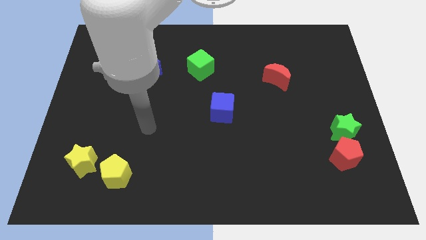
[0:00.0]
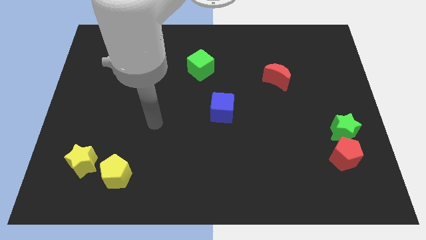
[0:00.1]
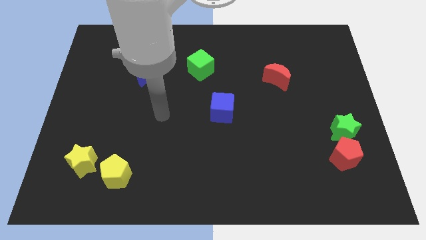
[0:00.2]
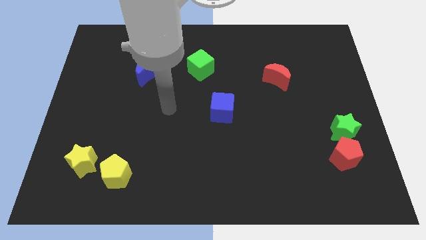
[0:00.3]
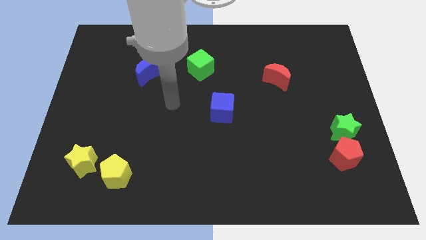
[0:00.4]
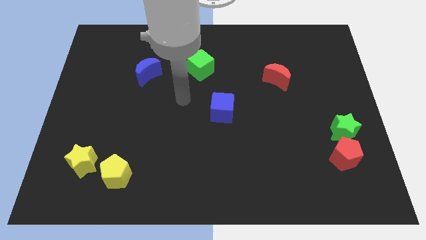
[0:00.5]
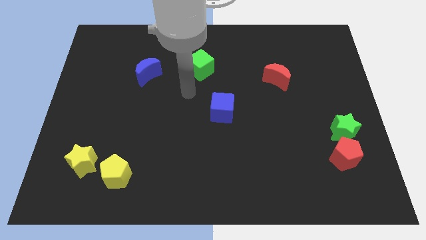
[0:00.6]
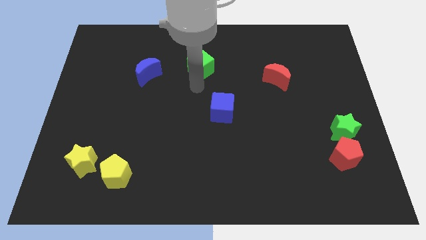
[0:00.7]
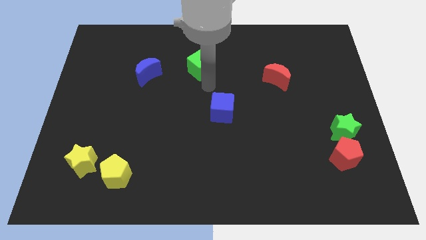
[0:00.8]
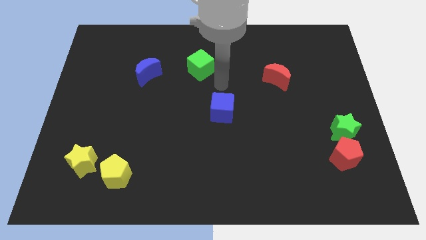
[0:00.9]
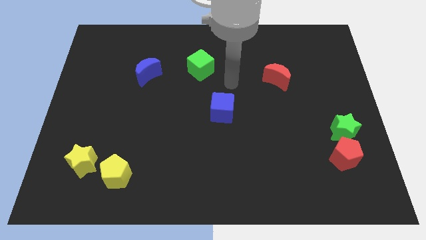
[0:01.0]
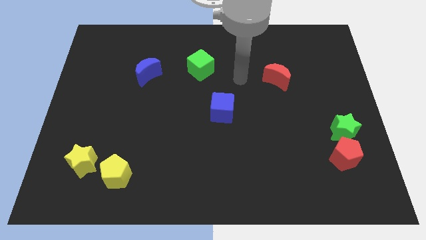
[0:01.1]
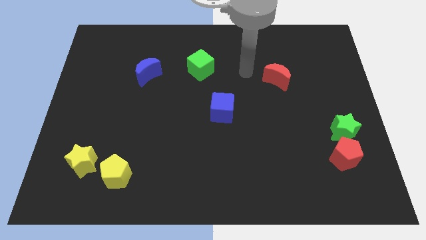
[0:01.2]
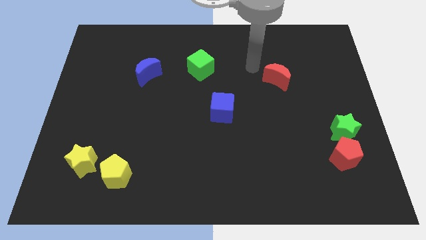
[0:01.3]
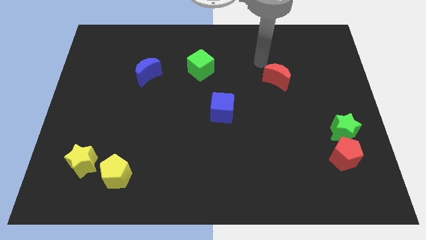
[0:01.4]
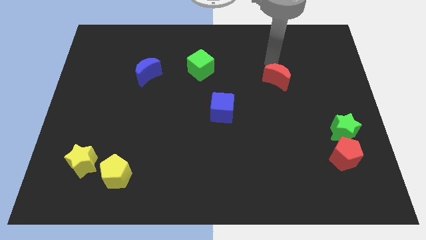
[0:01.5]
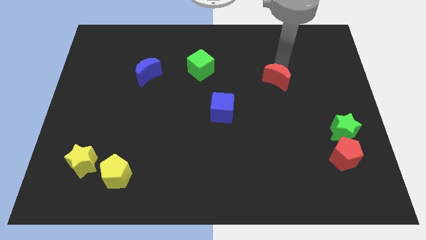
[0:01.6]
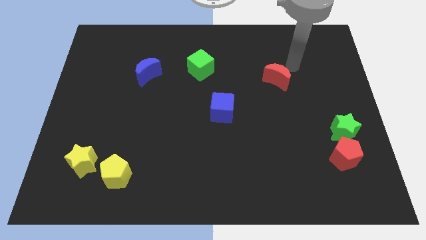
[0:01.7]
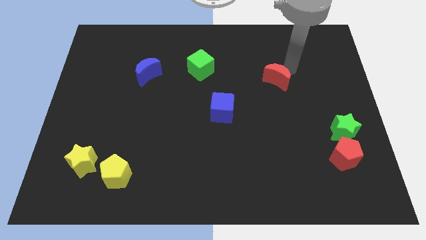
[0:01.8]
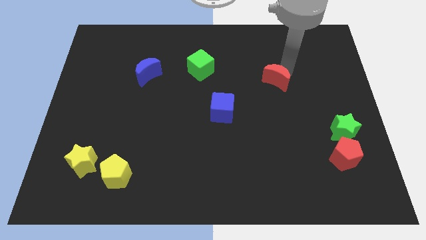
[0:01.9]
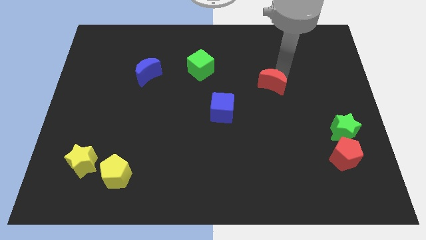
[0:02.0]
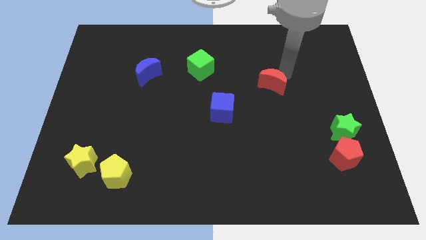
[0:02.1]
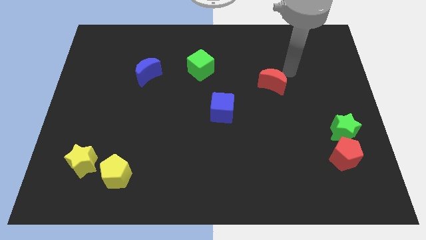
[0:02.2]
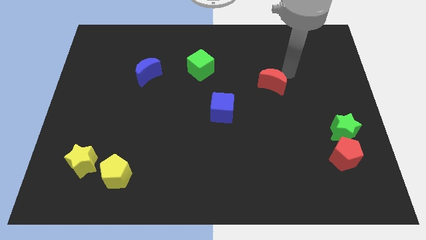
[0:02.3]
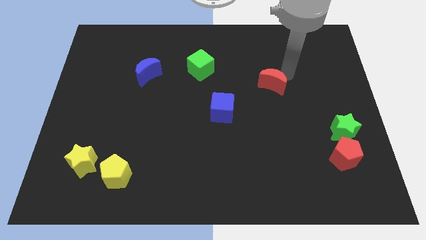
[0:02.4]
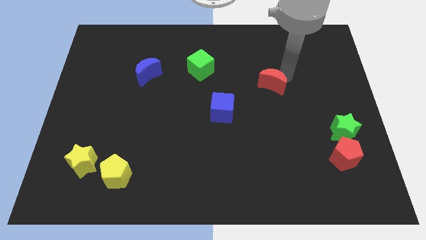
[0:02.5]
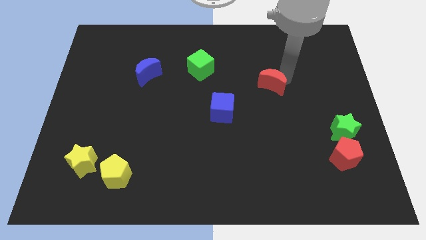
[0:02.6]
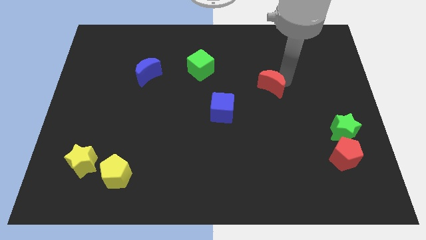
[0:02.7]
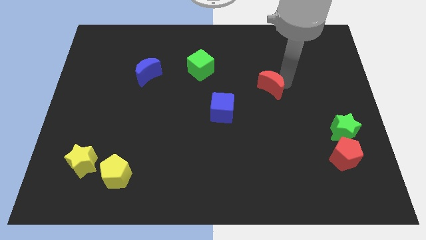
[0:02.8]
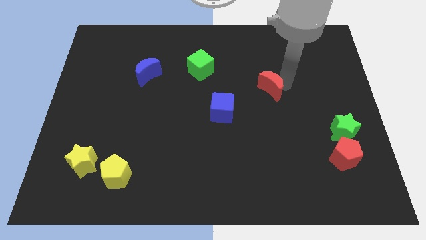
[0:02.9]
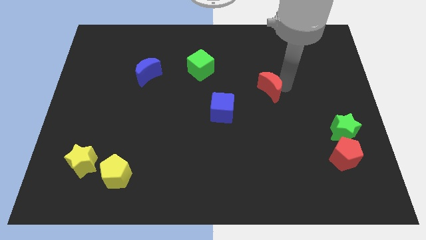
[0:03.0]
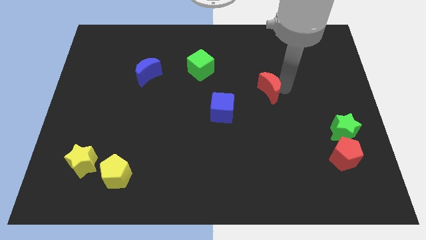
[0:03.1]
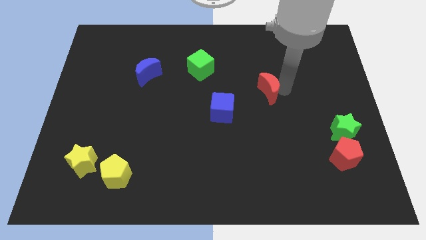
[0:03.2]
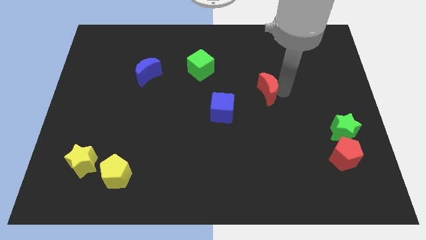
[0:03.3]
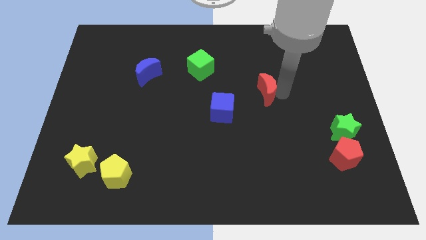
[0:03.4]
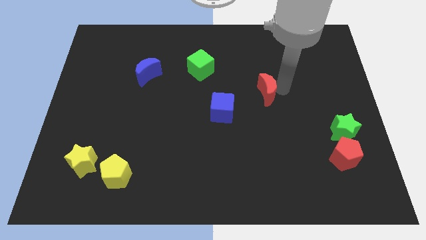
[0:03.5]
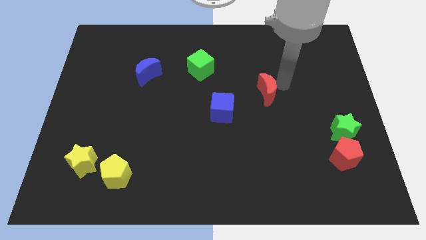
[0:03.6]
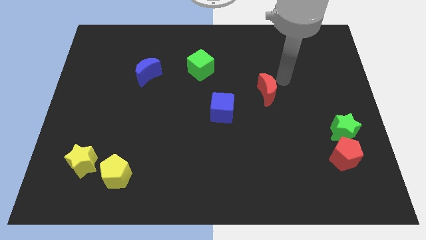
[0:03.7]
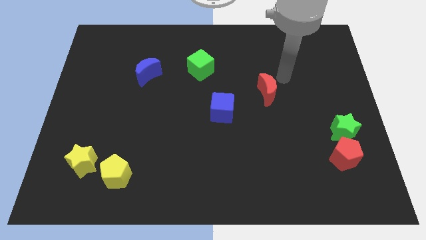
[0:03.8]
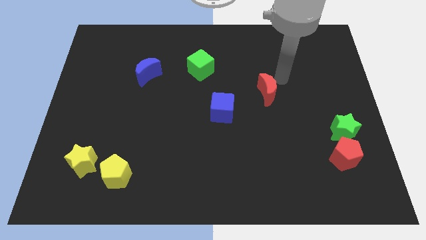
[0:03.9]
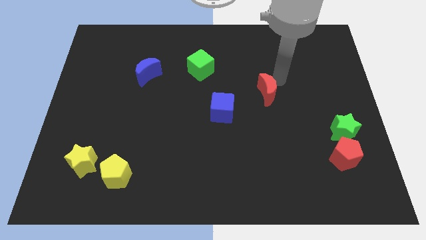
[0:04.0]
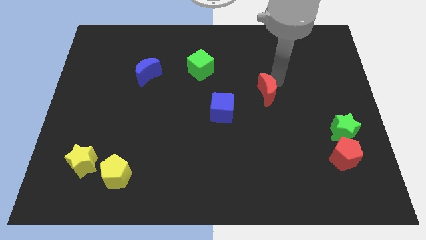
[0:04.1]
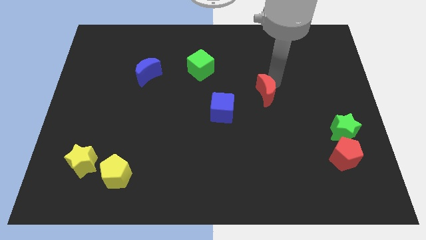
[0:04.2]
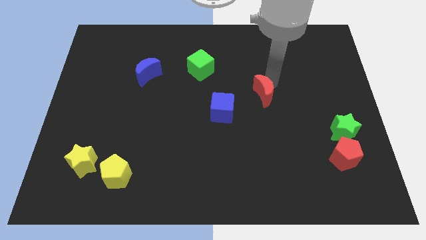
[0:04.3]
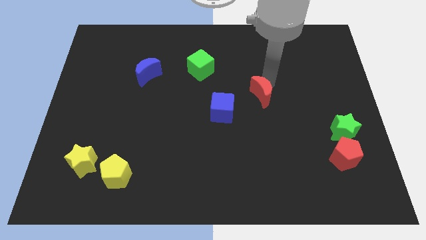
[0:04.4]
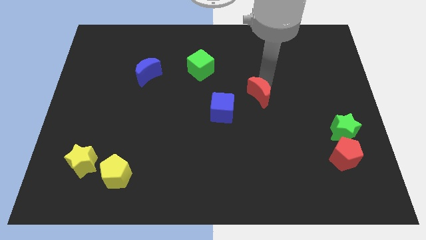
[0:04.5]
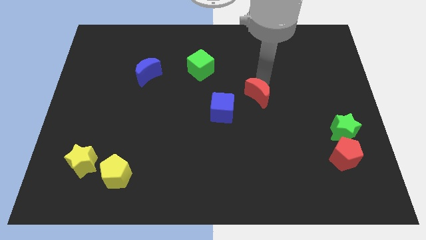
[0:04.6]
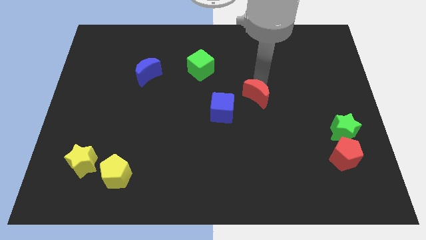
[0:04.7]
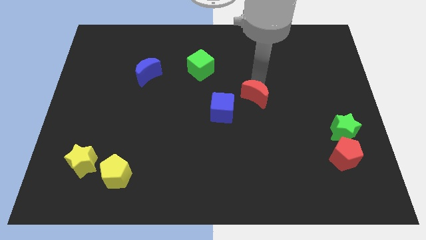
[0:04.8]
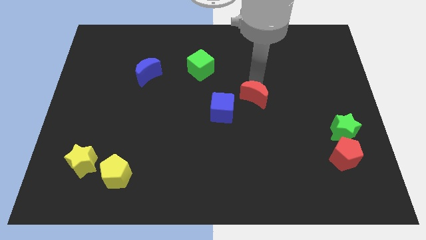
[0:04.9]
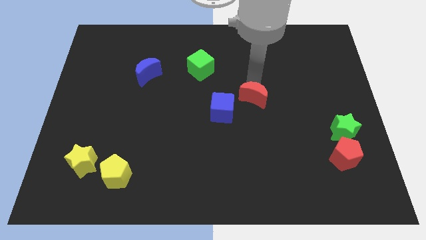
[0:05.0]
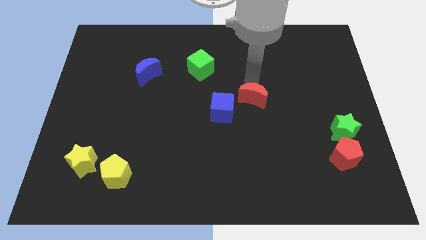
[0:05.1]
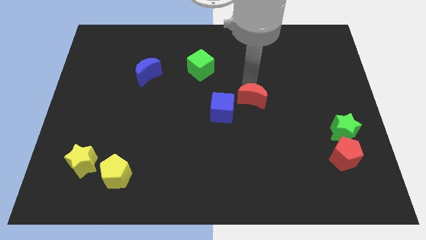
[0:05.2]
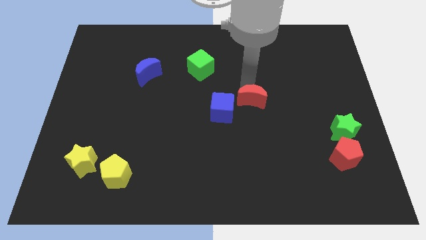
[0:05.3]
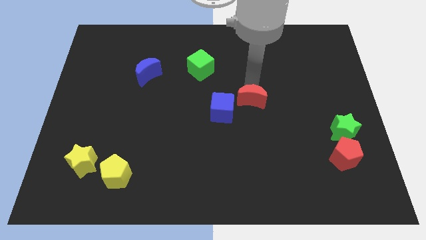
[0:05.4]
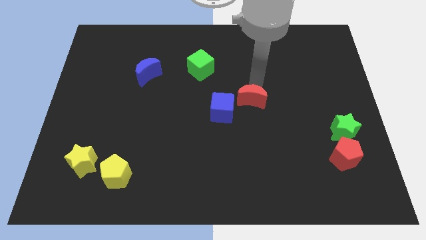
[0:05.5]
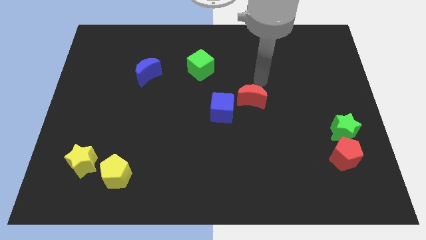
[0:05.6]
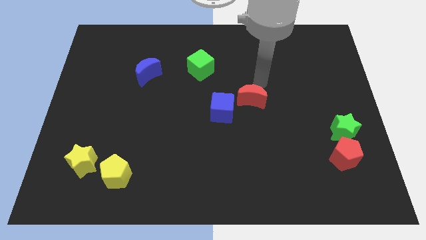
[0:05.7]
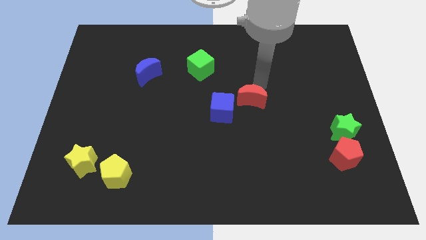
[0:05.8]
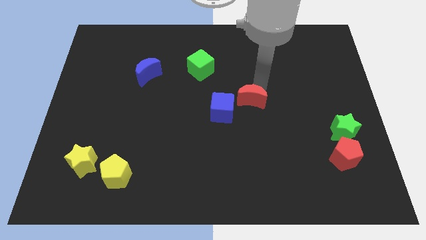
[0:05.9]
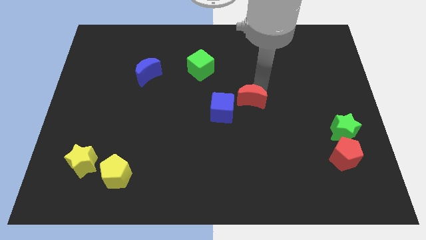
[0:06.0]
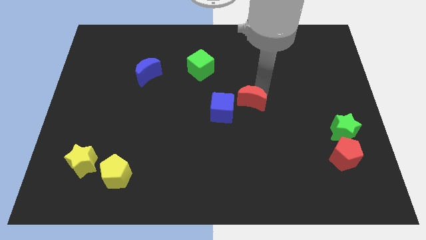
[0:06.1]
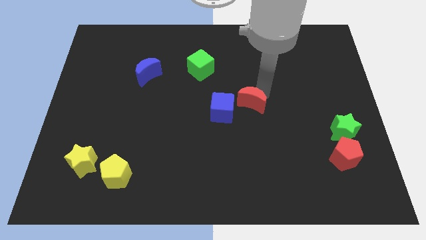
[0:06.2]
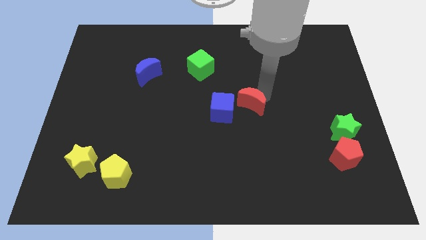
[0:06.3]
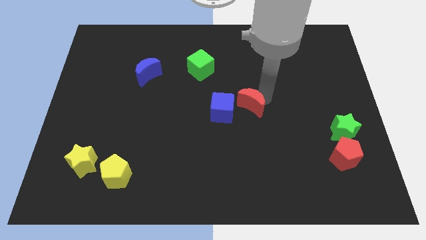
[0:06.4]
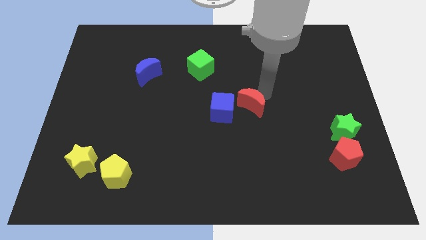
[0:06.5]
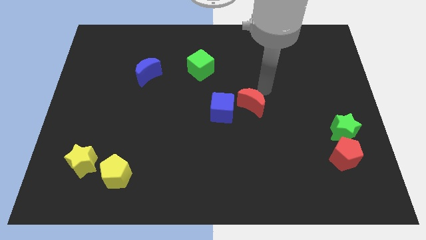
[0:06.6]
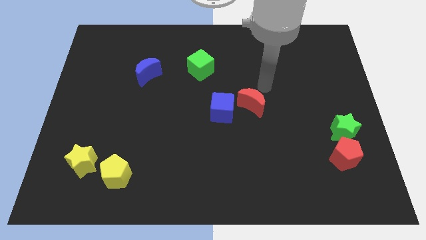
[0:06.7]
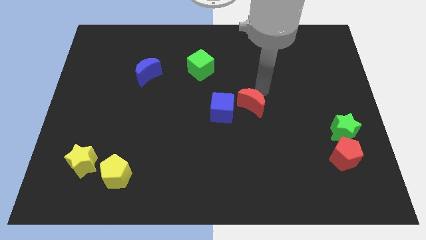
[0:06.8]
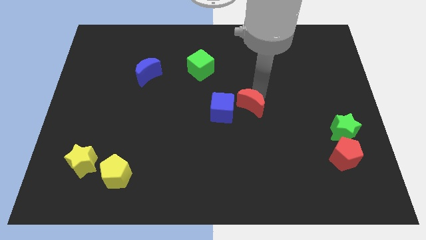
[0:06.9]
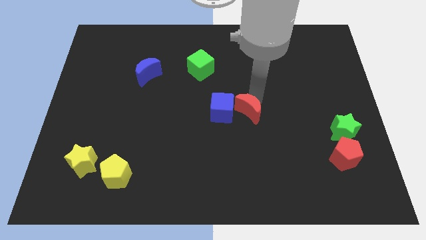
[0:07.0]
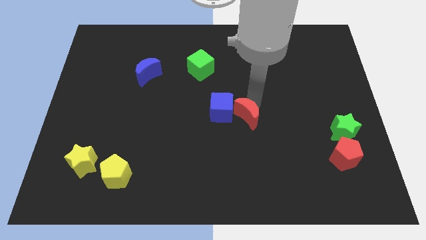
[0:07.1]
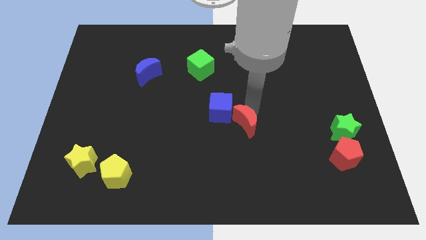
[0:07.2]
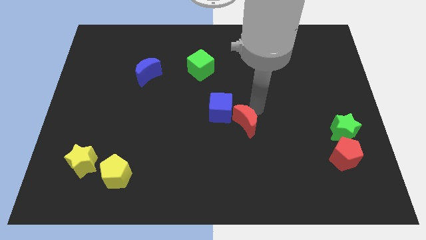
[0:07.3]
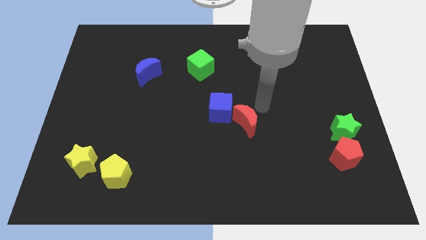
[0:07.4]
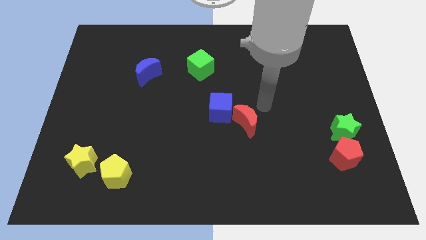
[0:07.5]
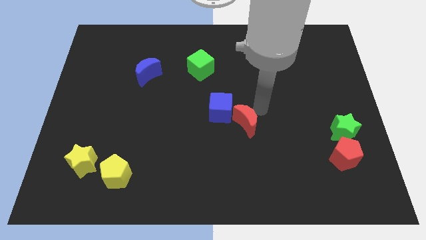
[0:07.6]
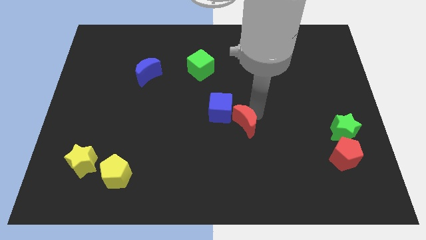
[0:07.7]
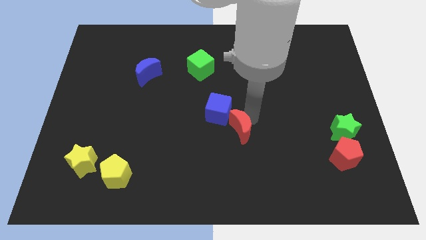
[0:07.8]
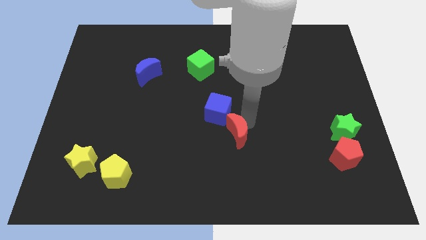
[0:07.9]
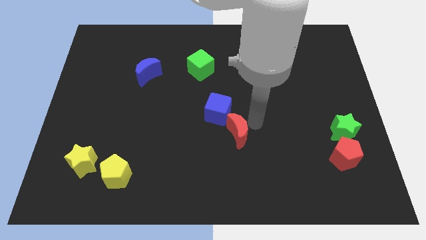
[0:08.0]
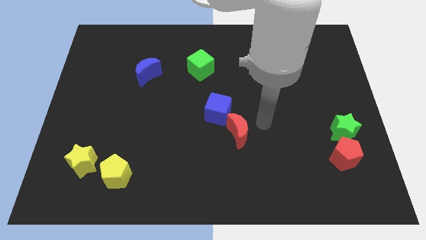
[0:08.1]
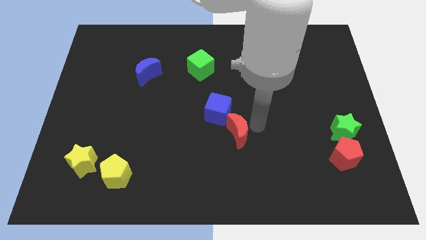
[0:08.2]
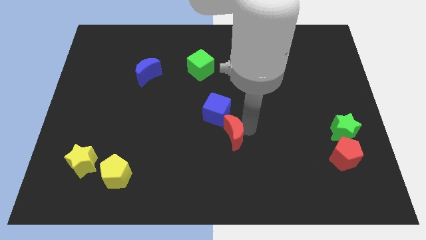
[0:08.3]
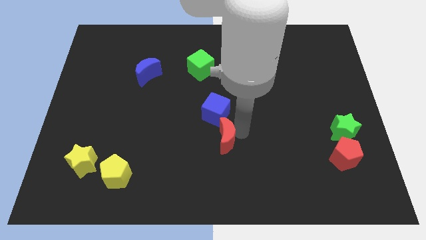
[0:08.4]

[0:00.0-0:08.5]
move the red moon downwards and left diagonally
